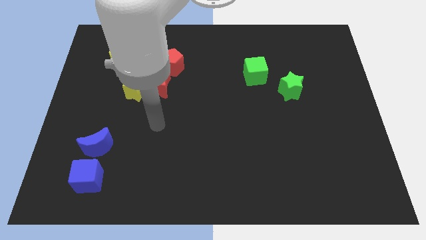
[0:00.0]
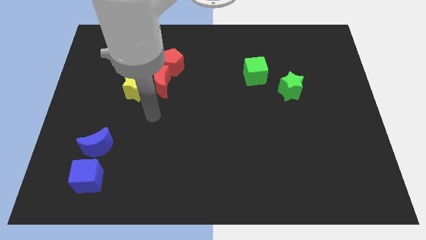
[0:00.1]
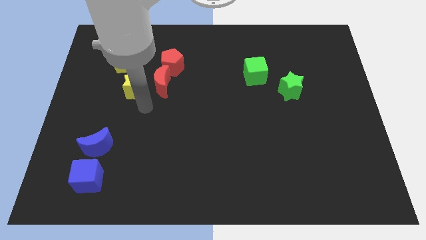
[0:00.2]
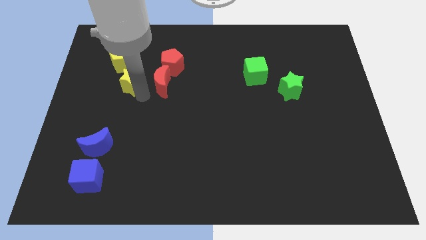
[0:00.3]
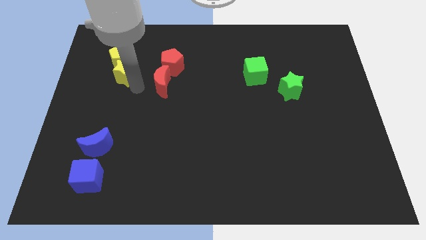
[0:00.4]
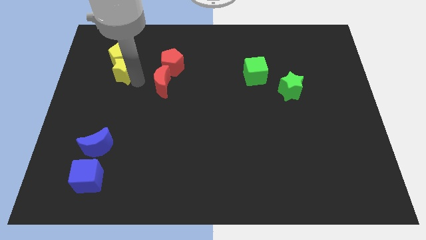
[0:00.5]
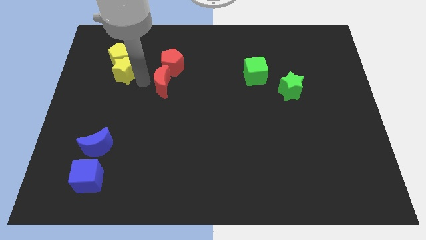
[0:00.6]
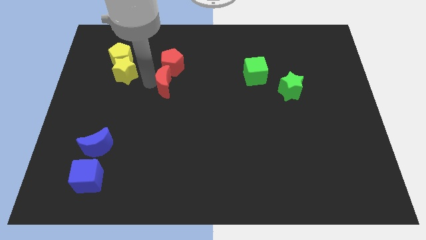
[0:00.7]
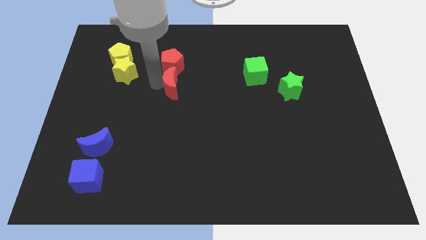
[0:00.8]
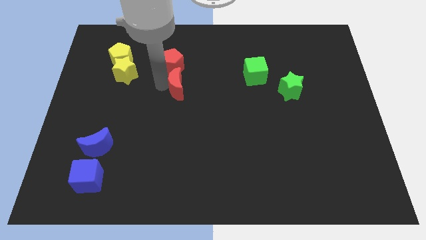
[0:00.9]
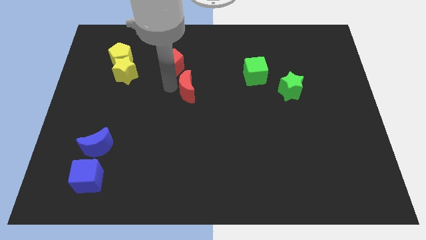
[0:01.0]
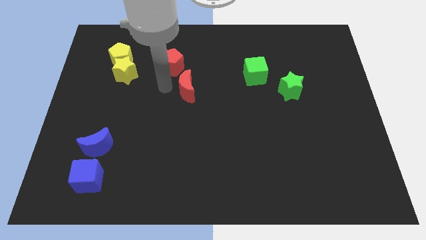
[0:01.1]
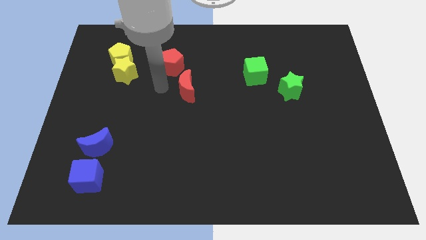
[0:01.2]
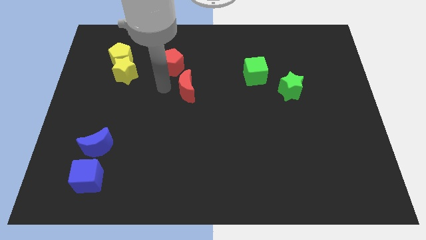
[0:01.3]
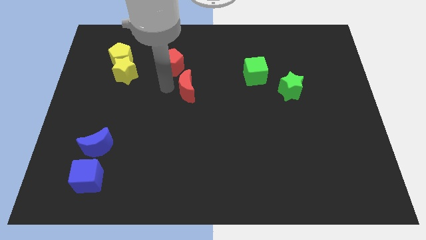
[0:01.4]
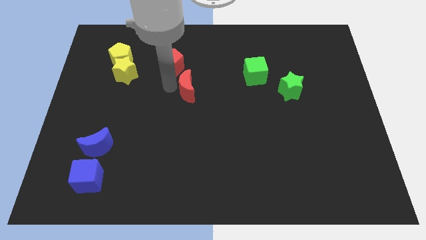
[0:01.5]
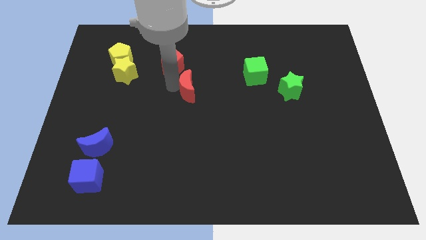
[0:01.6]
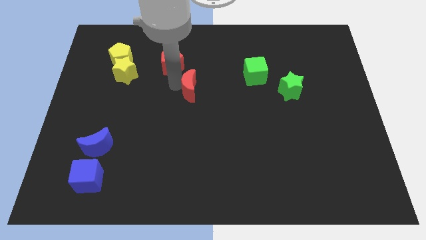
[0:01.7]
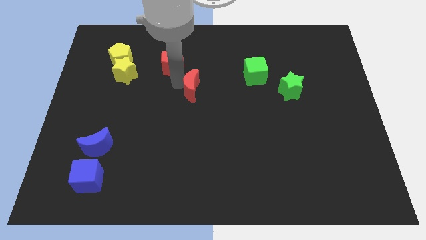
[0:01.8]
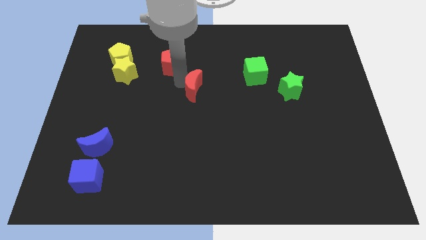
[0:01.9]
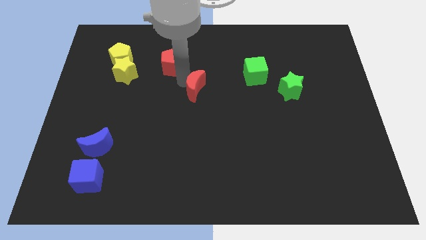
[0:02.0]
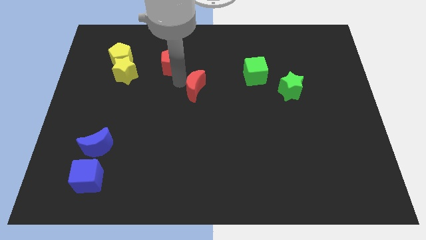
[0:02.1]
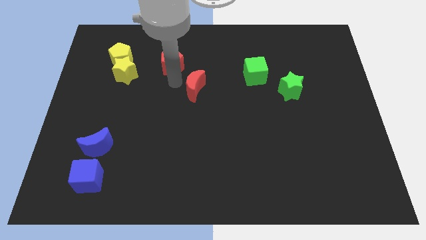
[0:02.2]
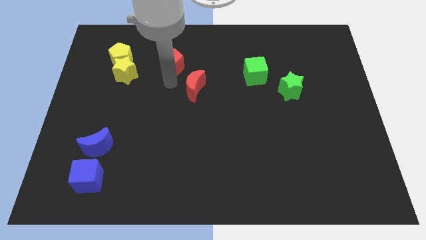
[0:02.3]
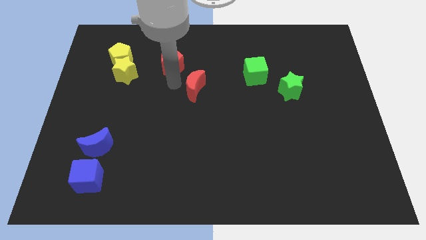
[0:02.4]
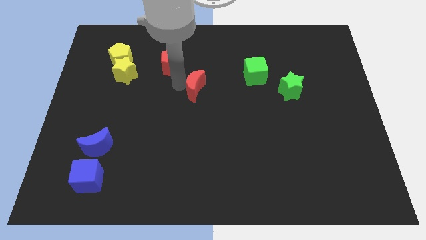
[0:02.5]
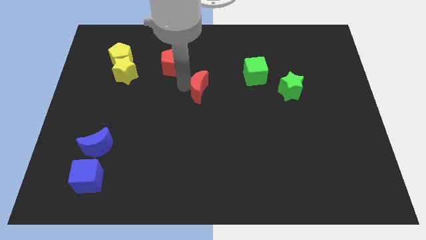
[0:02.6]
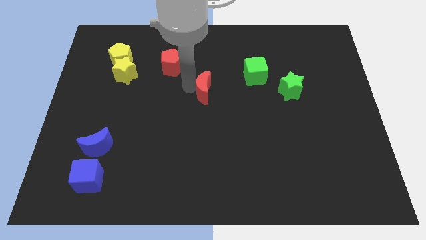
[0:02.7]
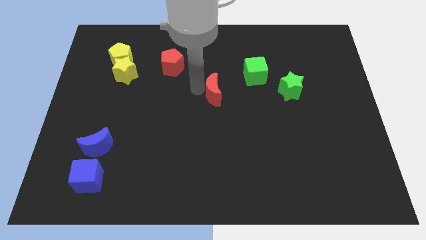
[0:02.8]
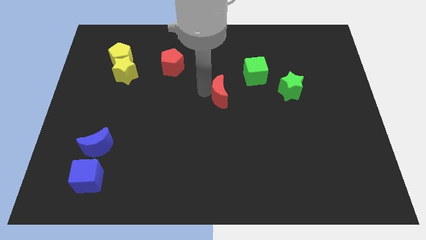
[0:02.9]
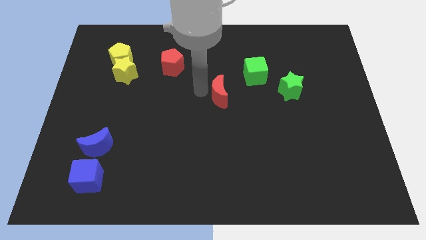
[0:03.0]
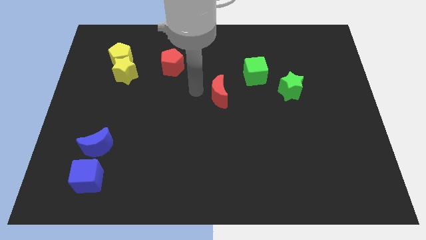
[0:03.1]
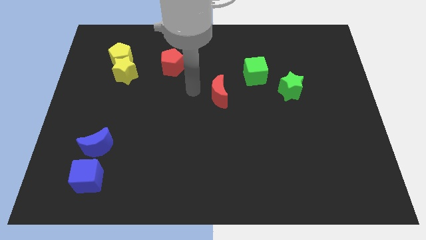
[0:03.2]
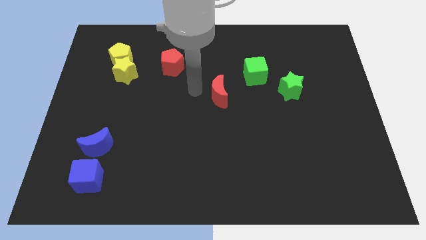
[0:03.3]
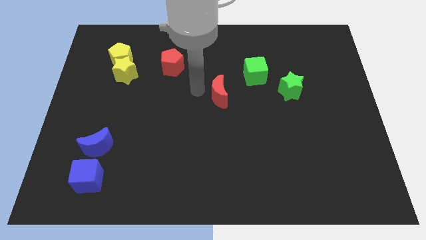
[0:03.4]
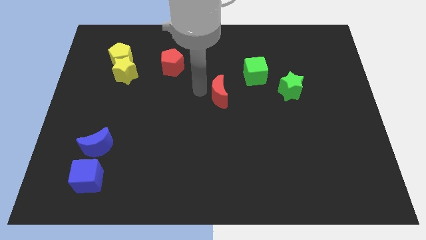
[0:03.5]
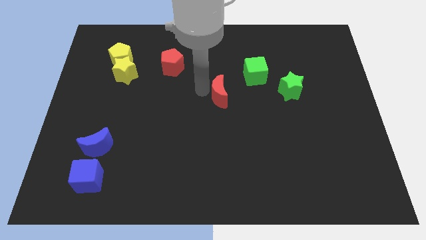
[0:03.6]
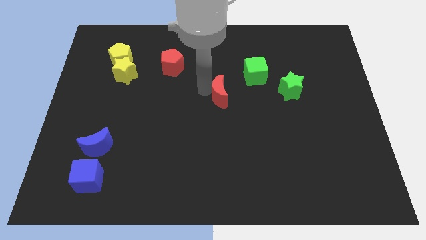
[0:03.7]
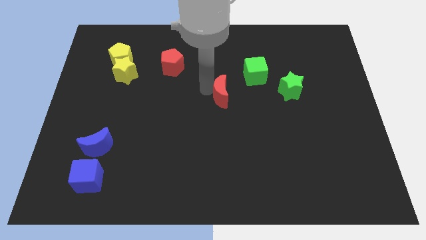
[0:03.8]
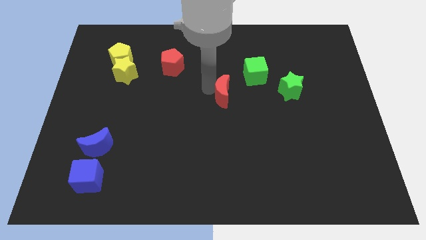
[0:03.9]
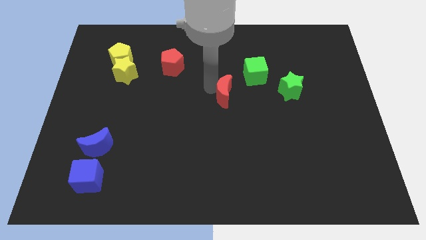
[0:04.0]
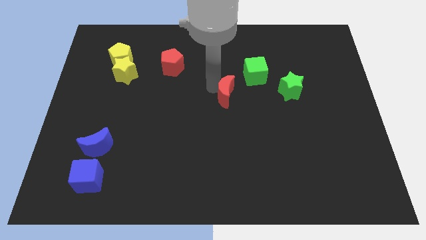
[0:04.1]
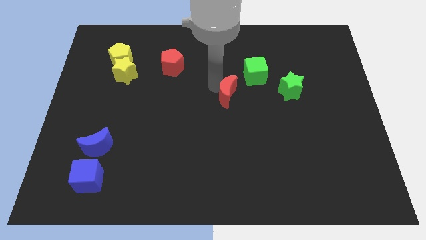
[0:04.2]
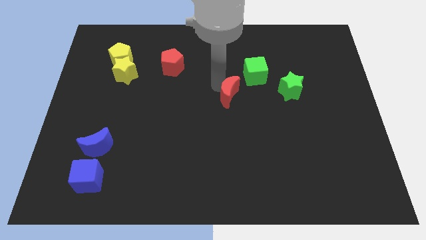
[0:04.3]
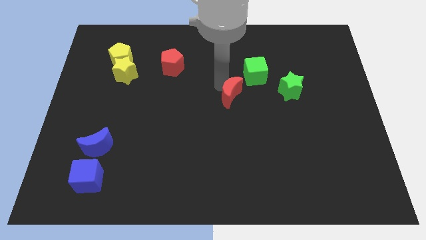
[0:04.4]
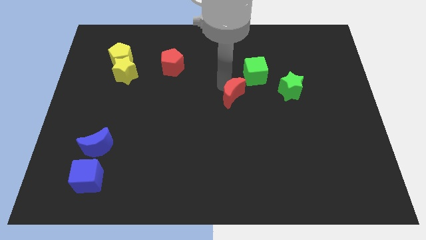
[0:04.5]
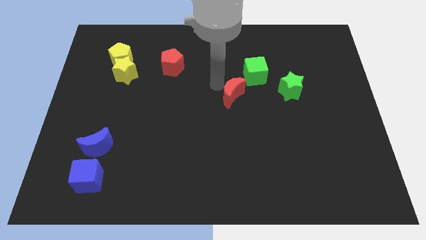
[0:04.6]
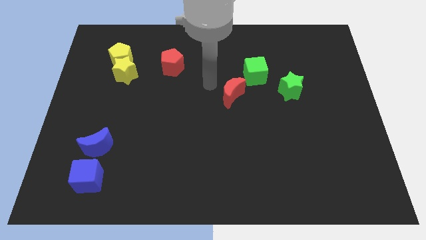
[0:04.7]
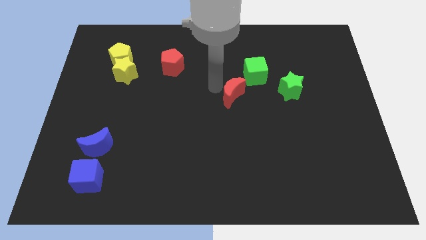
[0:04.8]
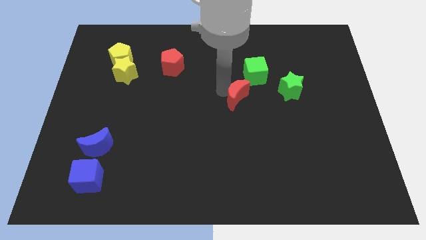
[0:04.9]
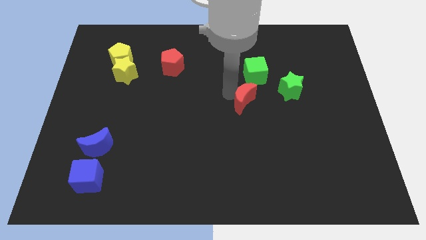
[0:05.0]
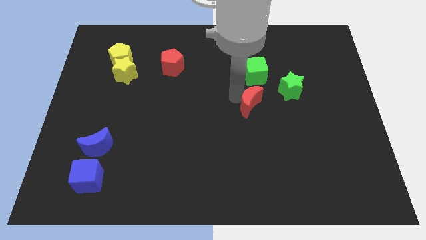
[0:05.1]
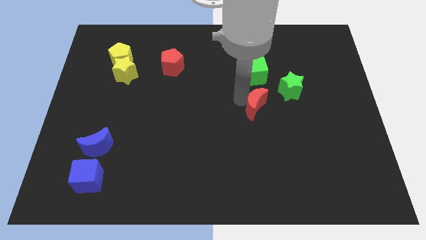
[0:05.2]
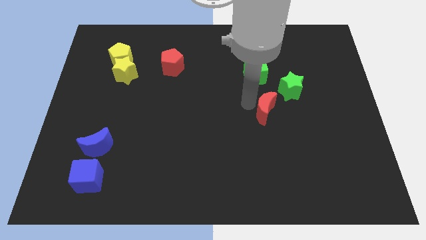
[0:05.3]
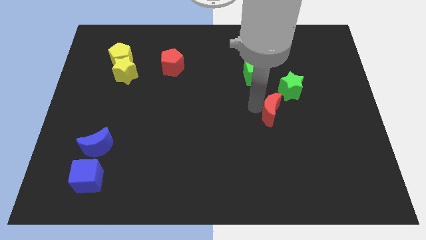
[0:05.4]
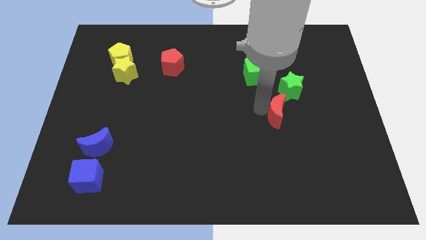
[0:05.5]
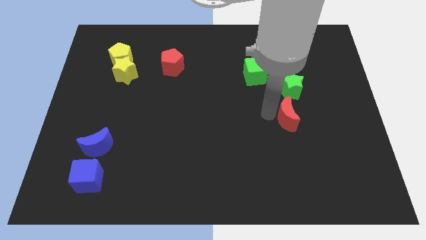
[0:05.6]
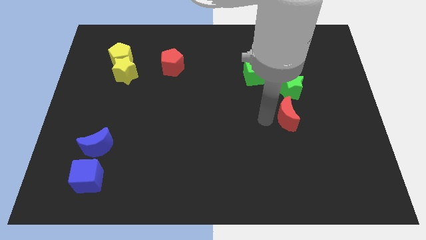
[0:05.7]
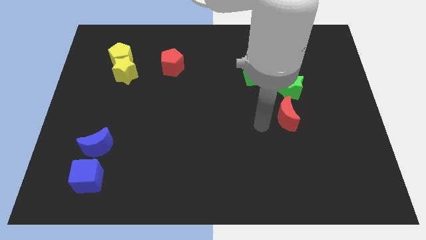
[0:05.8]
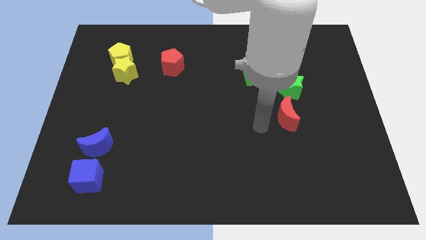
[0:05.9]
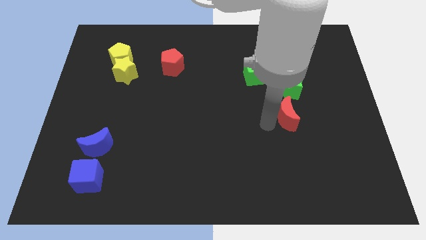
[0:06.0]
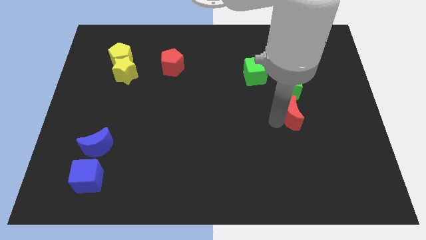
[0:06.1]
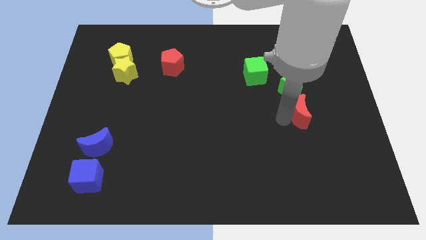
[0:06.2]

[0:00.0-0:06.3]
move the red moon diagonally down and to the right of the green star

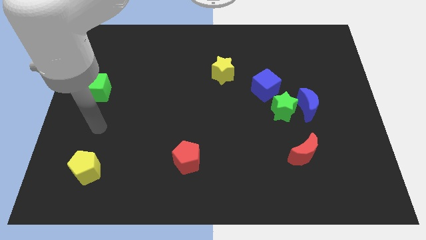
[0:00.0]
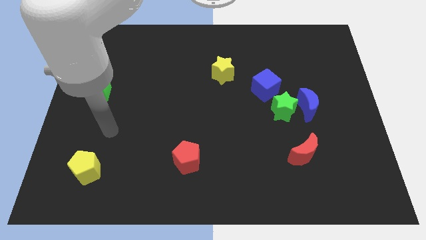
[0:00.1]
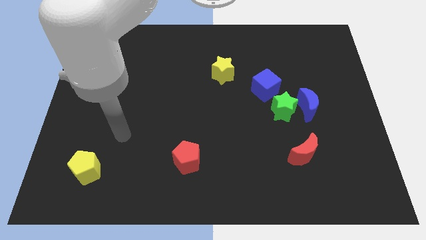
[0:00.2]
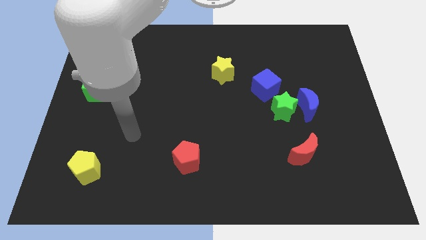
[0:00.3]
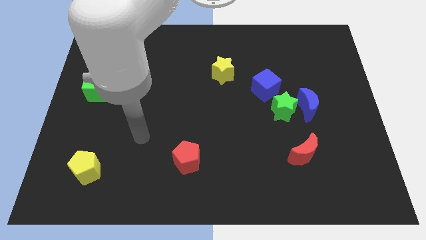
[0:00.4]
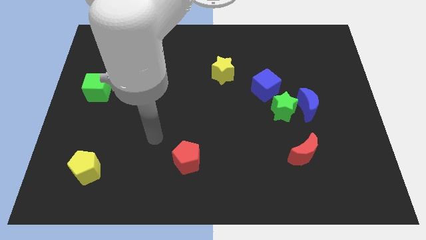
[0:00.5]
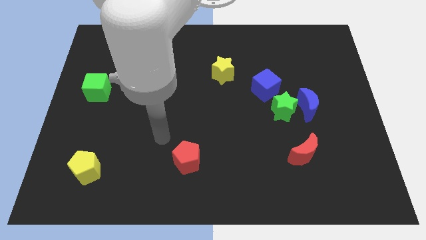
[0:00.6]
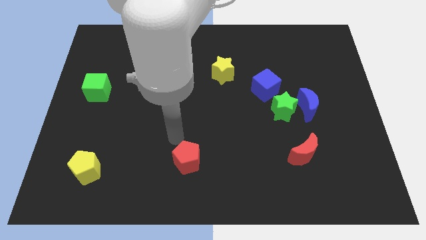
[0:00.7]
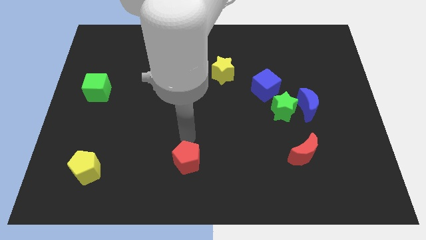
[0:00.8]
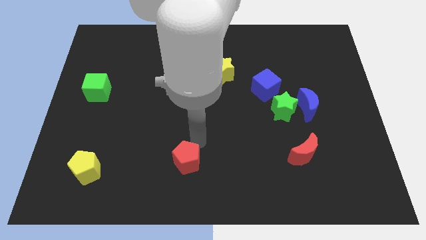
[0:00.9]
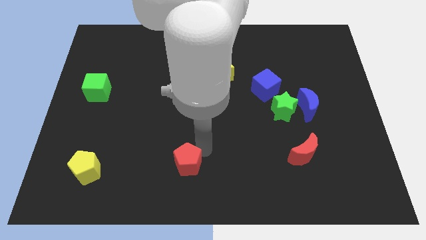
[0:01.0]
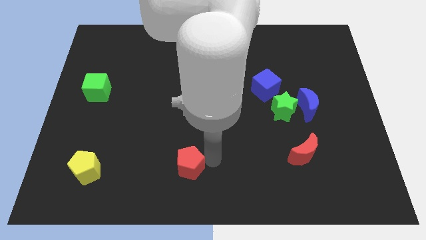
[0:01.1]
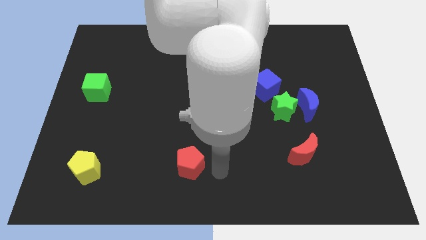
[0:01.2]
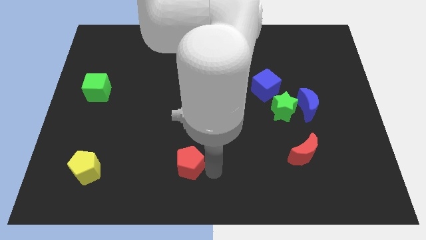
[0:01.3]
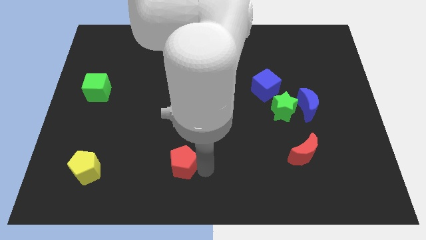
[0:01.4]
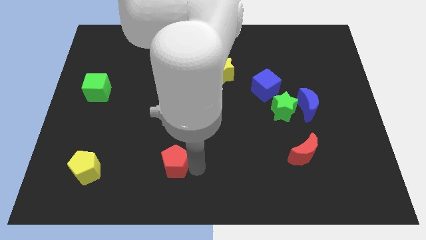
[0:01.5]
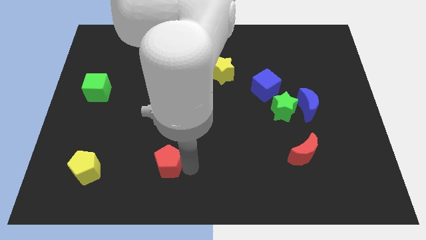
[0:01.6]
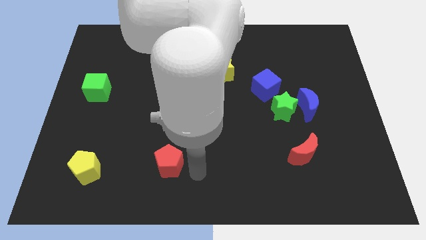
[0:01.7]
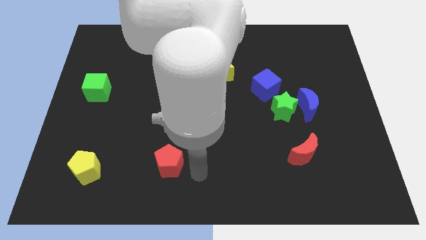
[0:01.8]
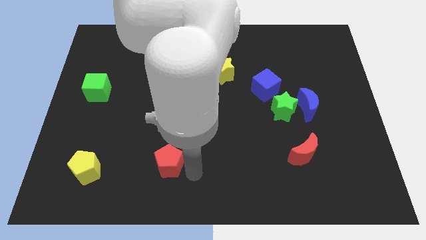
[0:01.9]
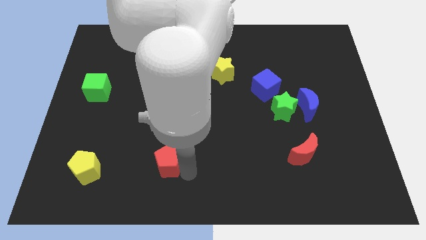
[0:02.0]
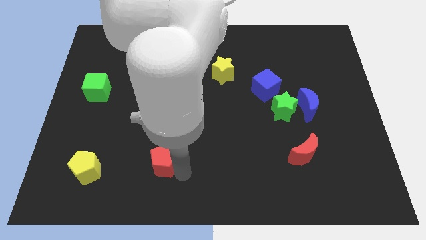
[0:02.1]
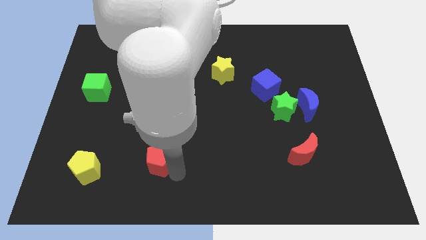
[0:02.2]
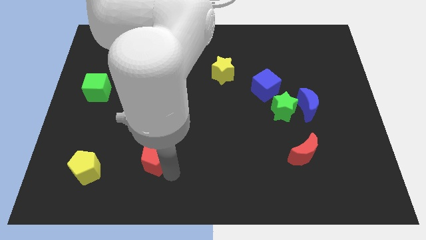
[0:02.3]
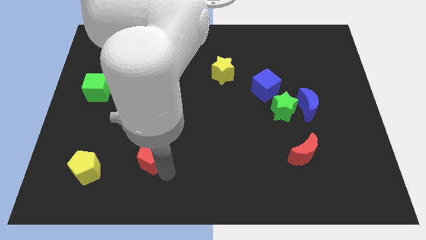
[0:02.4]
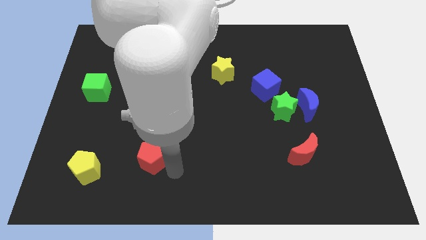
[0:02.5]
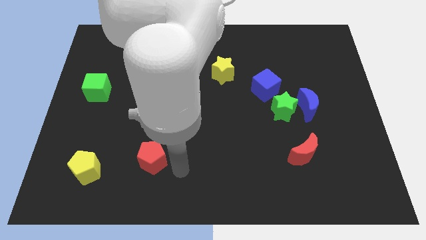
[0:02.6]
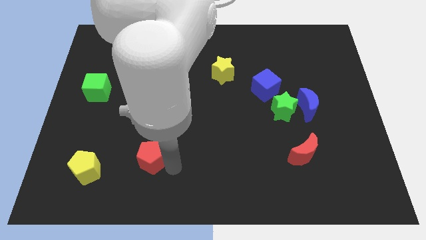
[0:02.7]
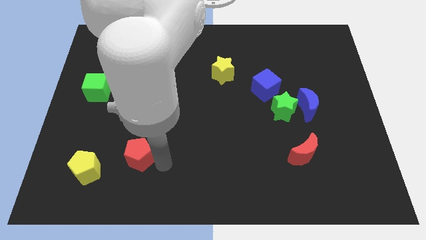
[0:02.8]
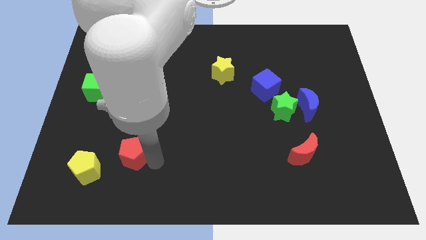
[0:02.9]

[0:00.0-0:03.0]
push the red pentagon to the top right of the yellow pentagon
